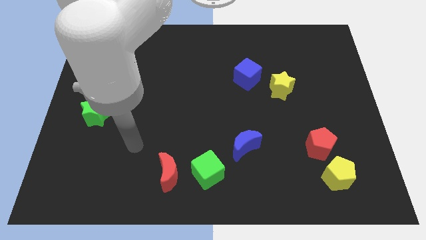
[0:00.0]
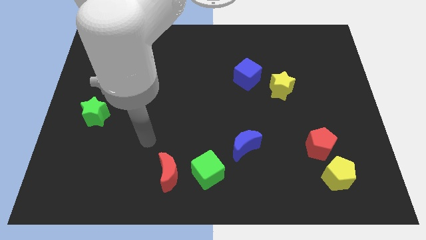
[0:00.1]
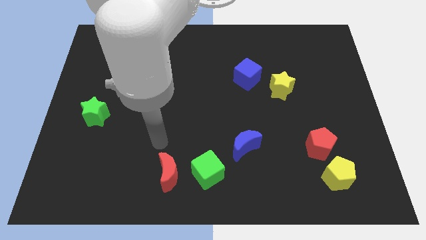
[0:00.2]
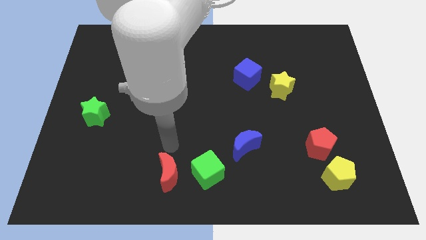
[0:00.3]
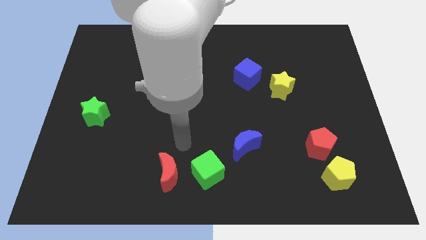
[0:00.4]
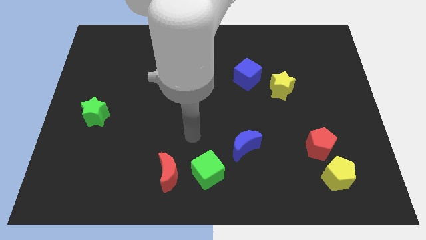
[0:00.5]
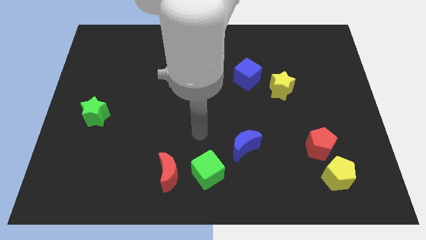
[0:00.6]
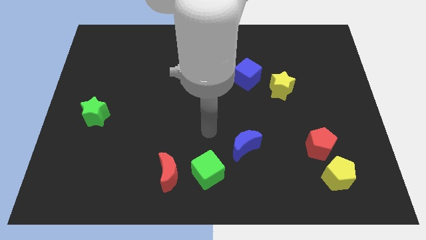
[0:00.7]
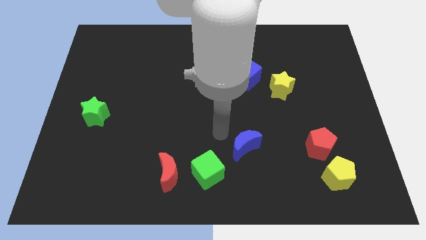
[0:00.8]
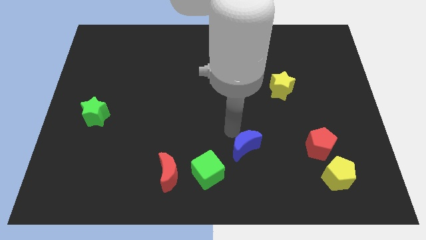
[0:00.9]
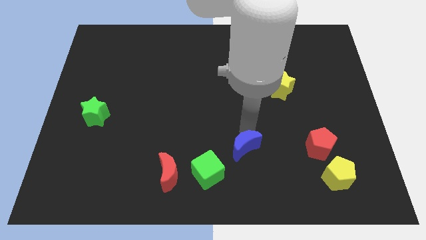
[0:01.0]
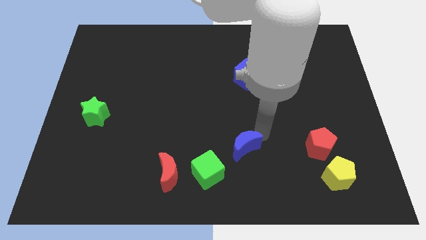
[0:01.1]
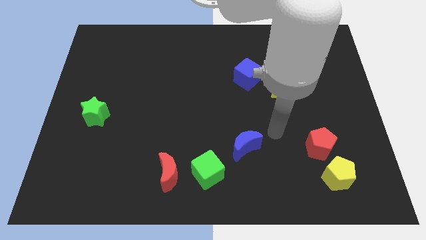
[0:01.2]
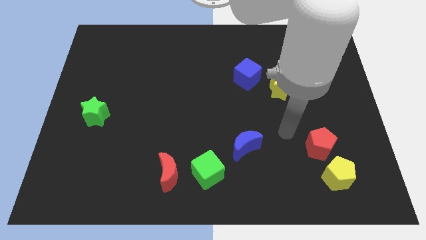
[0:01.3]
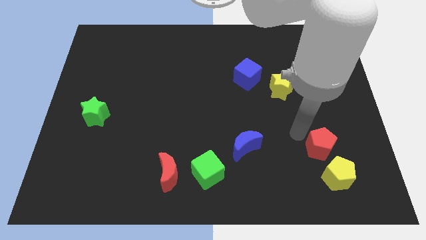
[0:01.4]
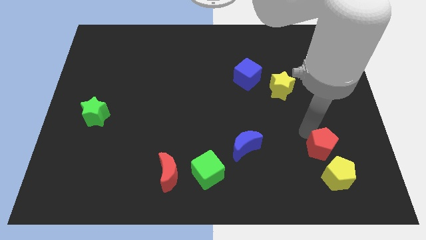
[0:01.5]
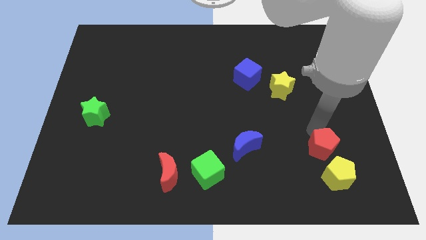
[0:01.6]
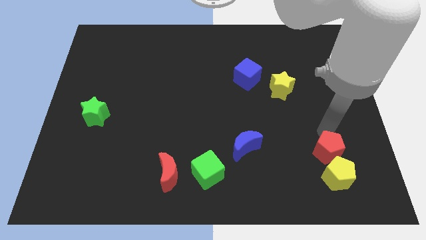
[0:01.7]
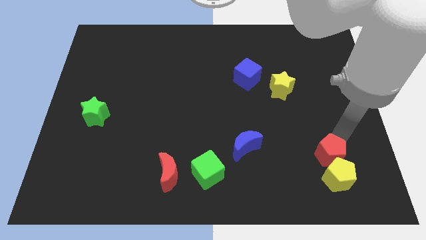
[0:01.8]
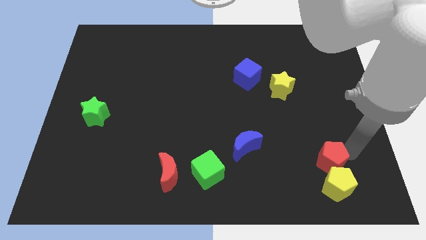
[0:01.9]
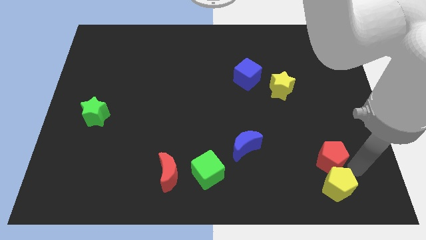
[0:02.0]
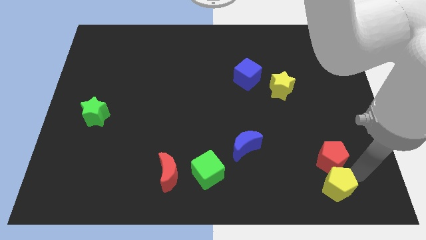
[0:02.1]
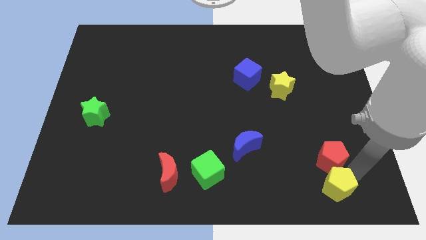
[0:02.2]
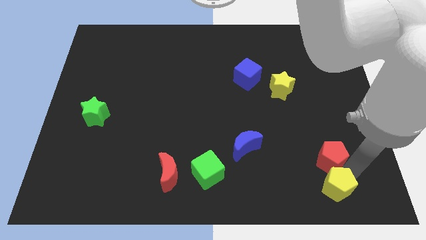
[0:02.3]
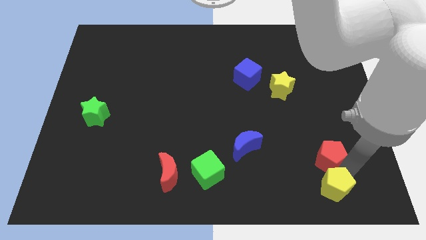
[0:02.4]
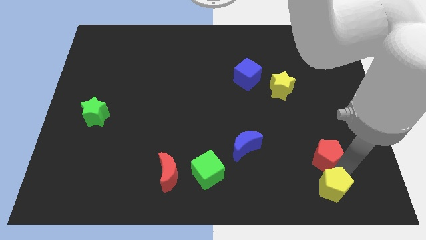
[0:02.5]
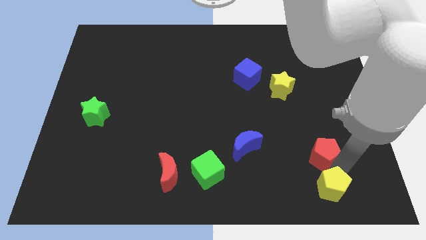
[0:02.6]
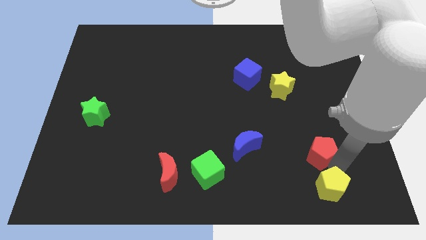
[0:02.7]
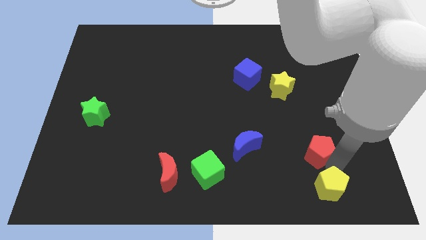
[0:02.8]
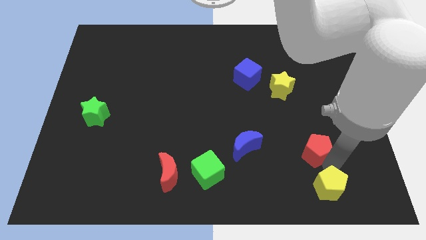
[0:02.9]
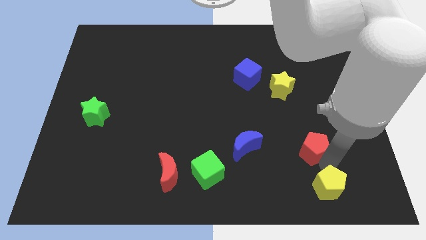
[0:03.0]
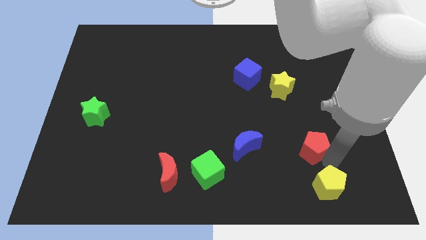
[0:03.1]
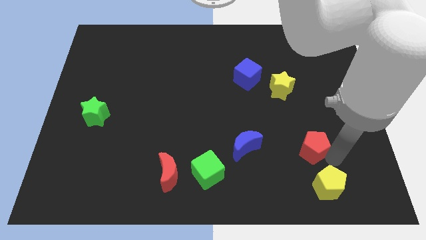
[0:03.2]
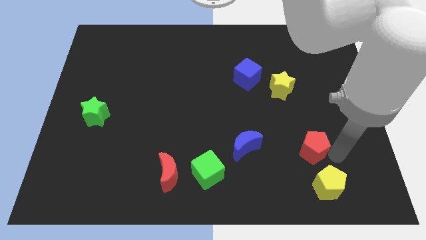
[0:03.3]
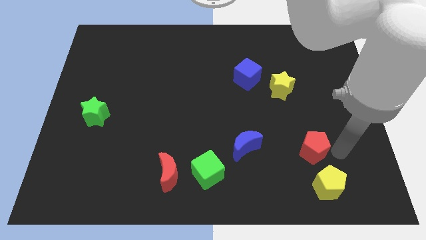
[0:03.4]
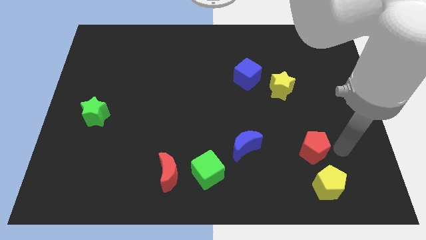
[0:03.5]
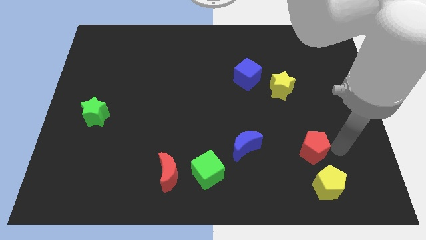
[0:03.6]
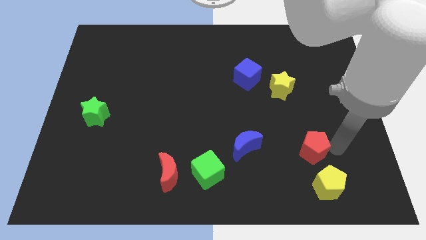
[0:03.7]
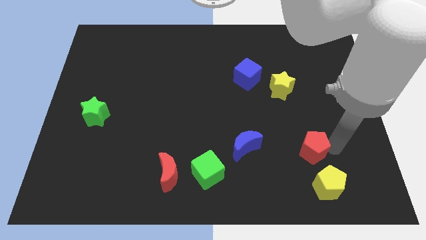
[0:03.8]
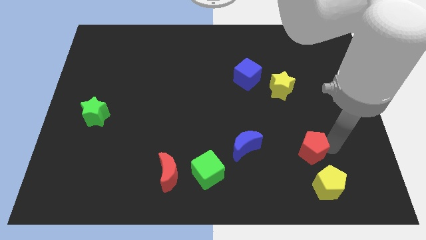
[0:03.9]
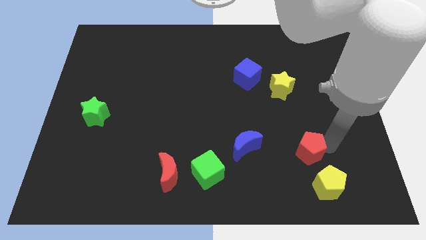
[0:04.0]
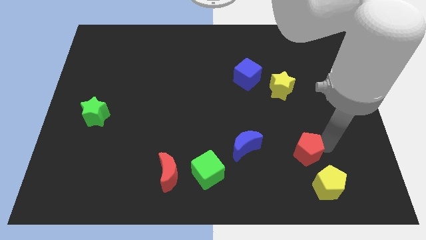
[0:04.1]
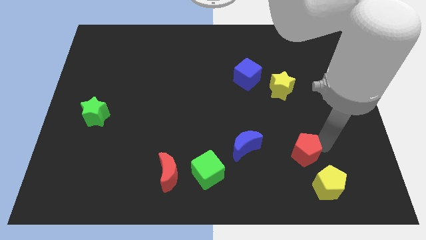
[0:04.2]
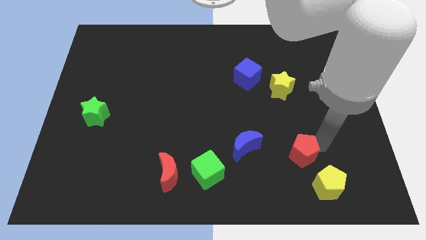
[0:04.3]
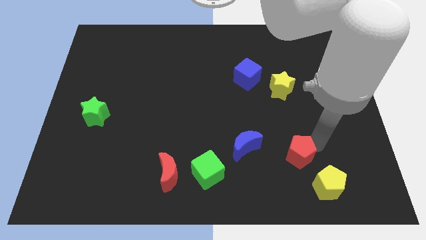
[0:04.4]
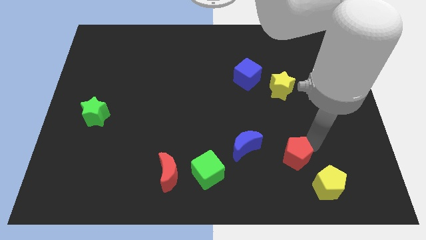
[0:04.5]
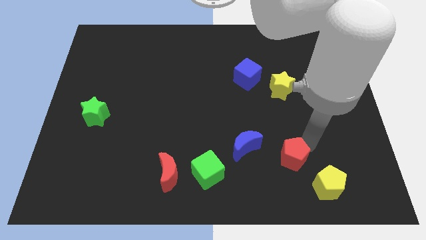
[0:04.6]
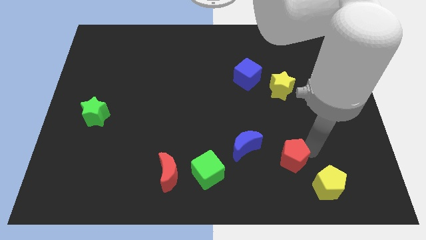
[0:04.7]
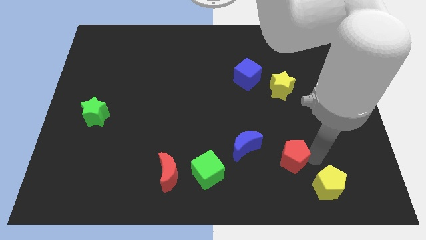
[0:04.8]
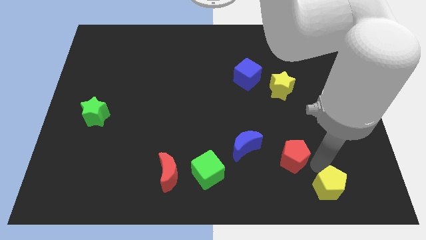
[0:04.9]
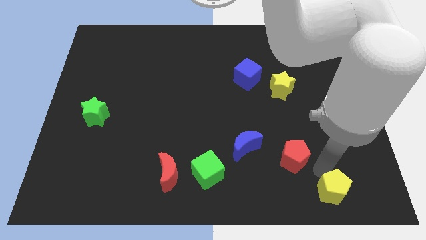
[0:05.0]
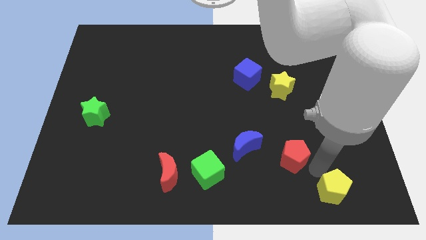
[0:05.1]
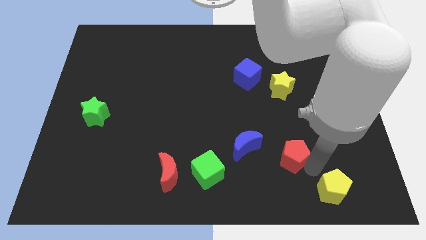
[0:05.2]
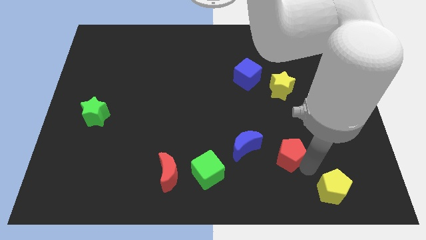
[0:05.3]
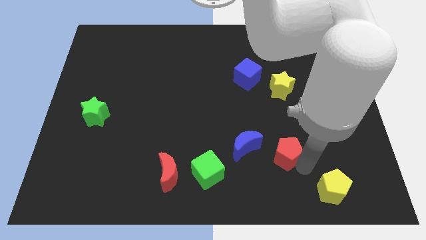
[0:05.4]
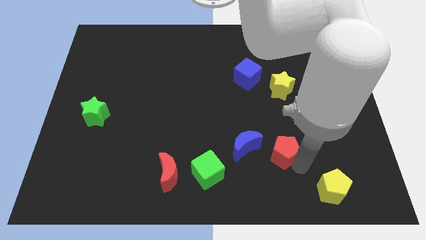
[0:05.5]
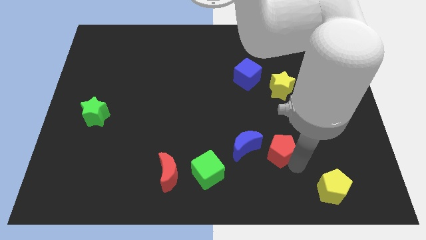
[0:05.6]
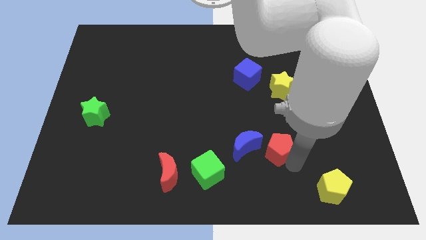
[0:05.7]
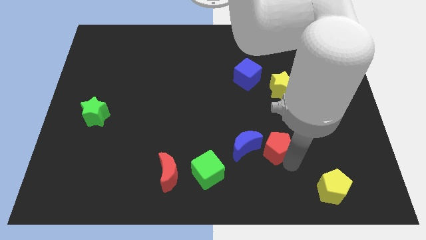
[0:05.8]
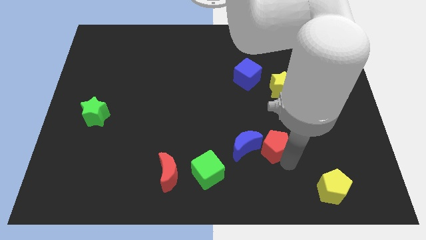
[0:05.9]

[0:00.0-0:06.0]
slide the red pentagon to the blue moon

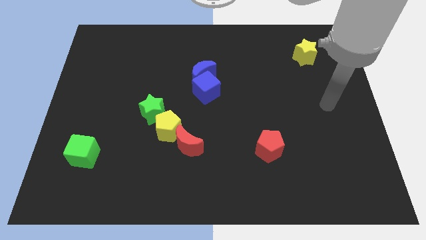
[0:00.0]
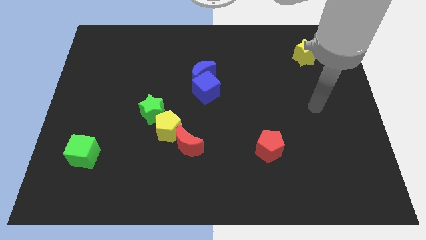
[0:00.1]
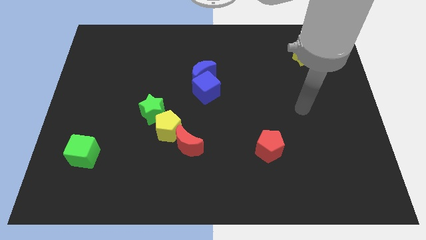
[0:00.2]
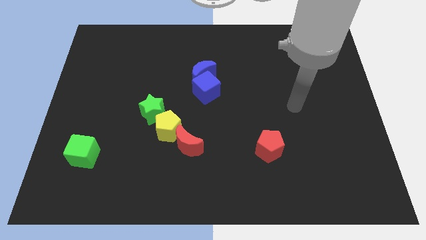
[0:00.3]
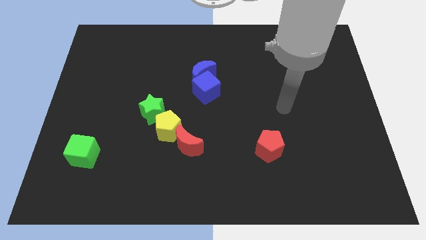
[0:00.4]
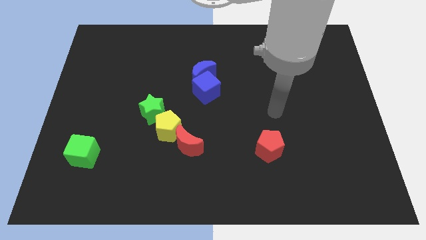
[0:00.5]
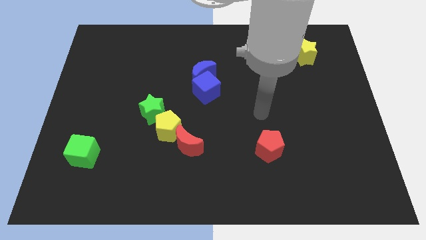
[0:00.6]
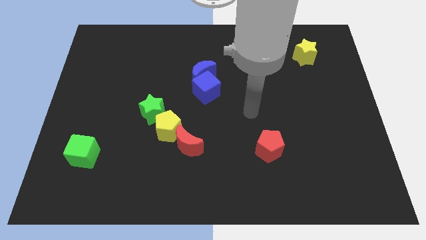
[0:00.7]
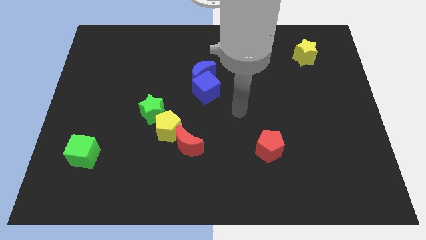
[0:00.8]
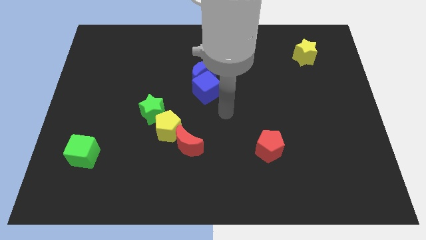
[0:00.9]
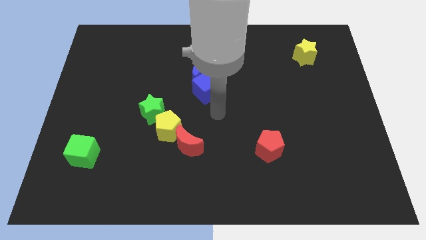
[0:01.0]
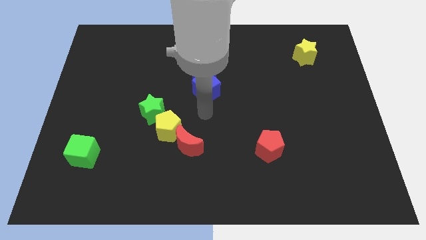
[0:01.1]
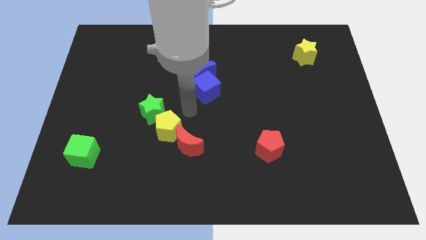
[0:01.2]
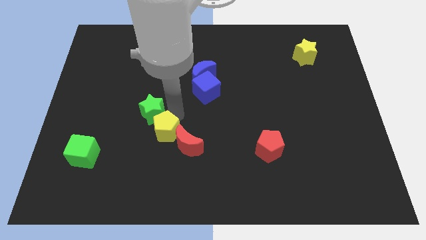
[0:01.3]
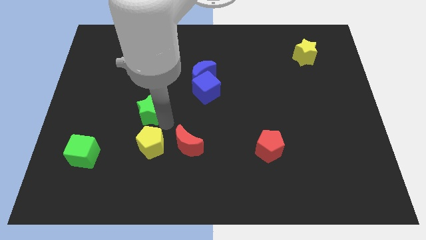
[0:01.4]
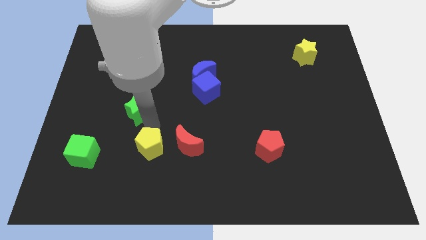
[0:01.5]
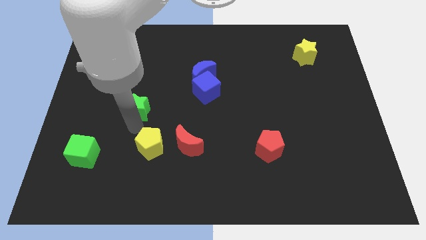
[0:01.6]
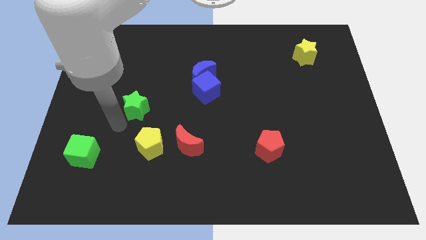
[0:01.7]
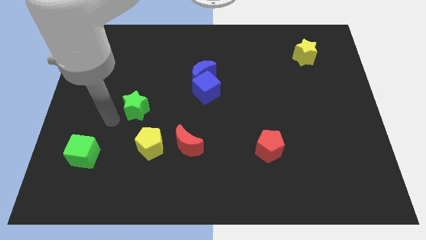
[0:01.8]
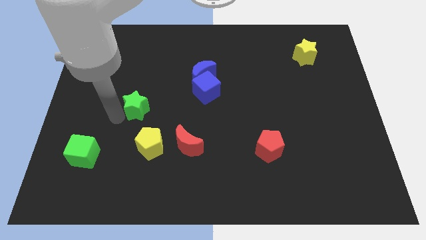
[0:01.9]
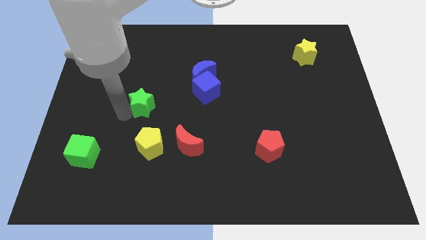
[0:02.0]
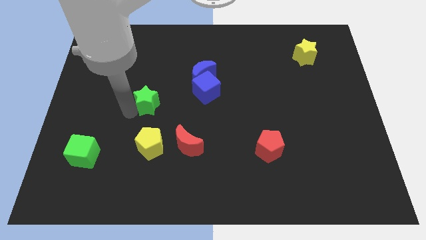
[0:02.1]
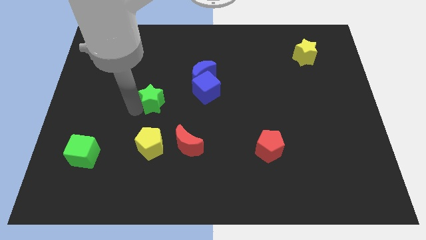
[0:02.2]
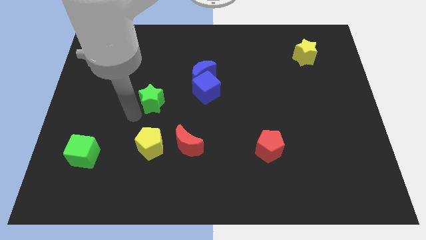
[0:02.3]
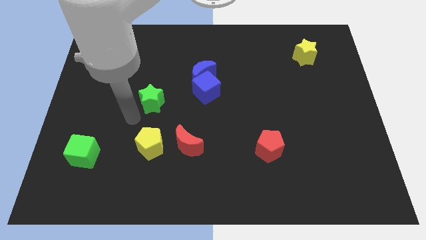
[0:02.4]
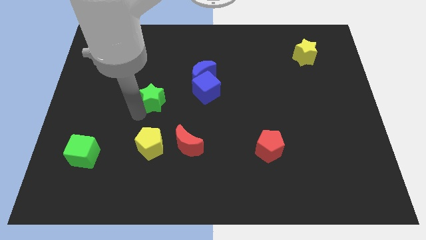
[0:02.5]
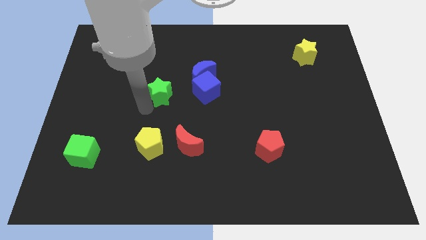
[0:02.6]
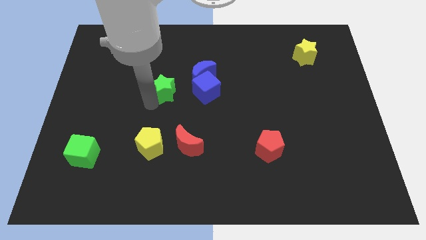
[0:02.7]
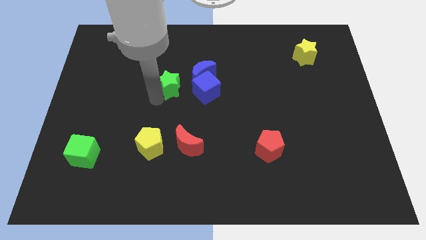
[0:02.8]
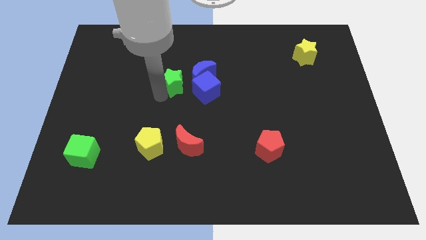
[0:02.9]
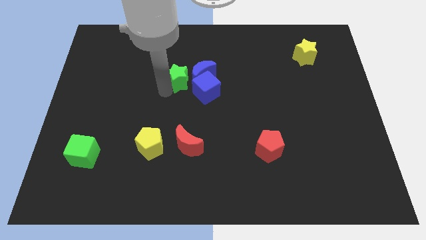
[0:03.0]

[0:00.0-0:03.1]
slide the green star to the blue moon
